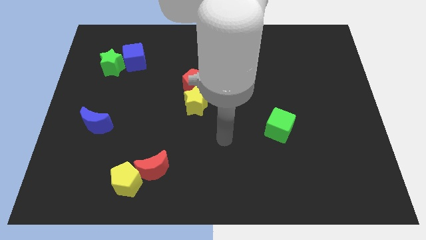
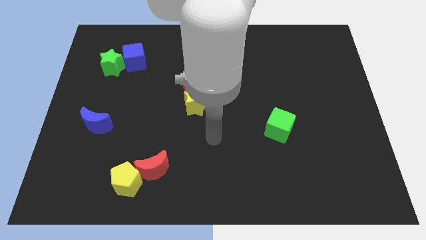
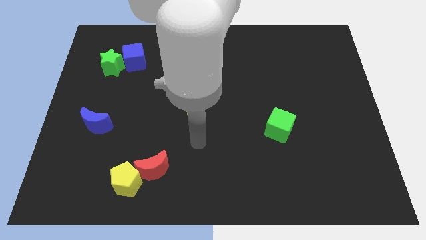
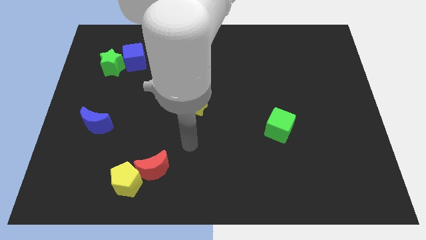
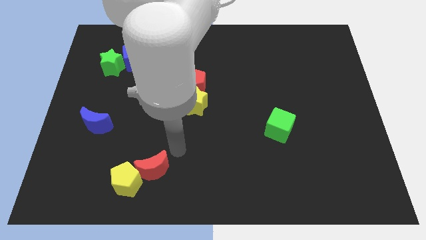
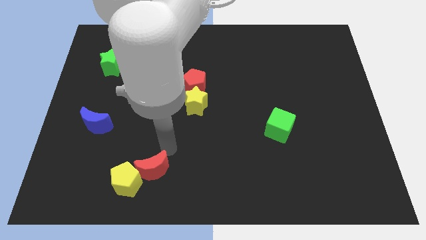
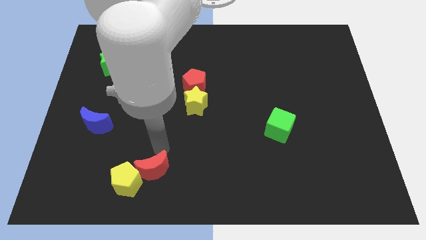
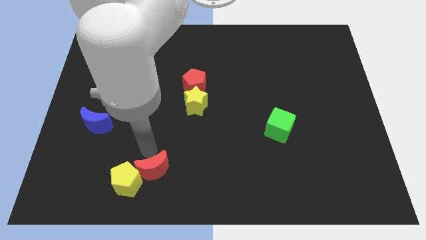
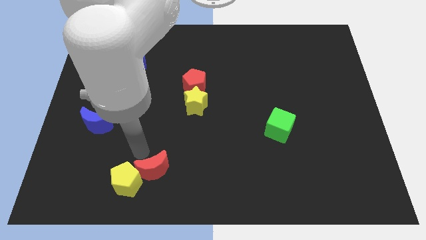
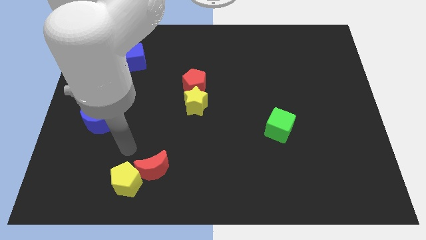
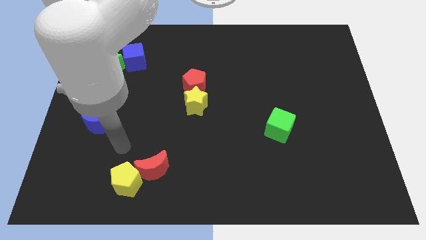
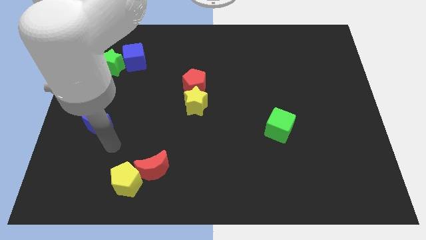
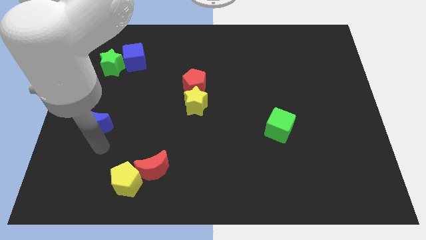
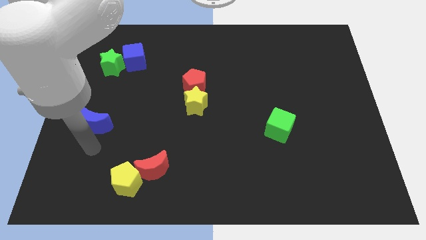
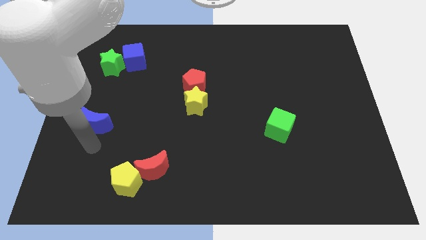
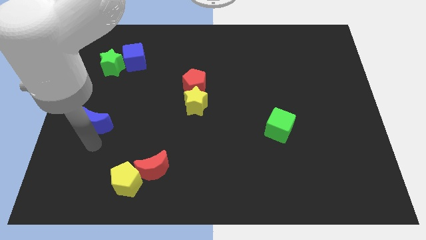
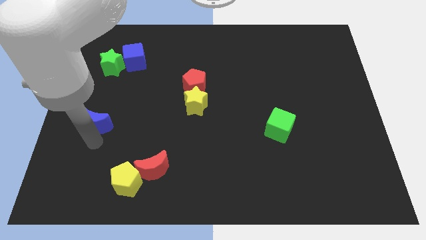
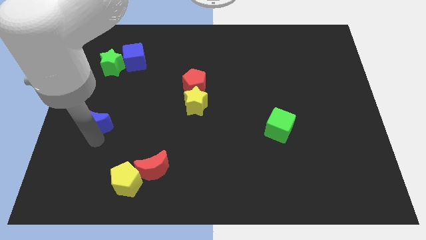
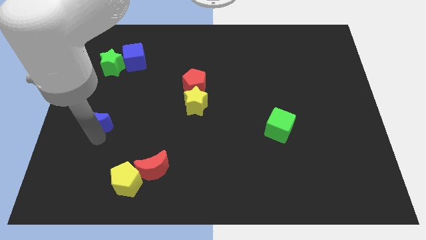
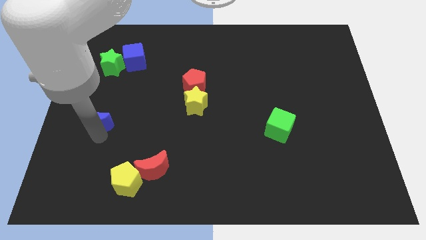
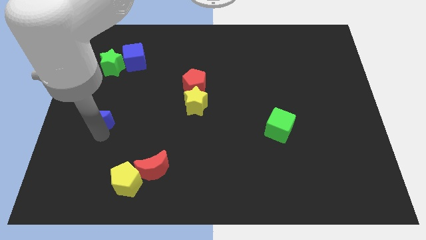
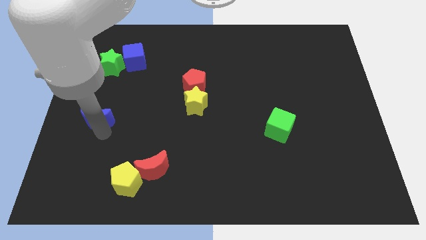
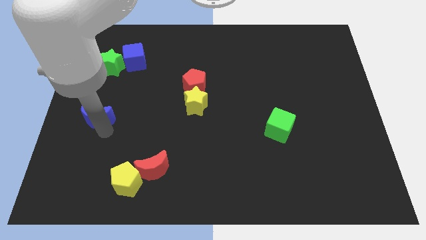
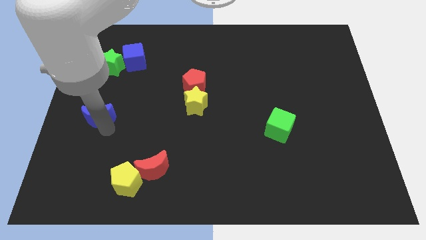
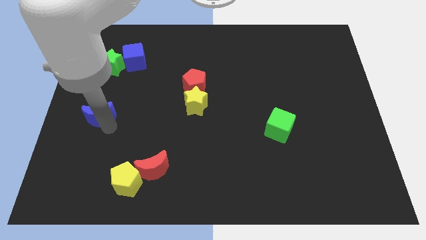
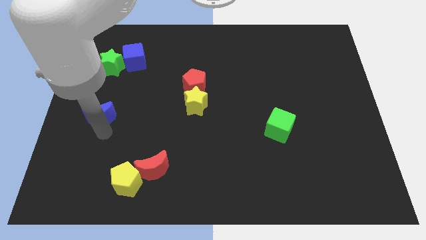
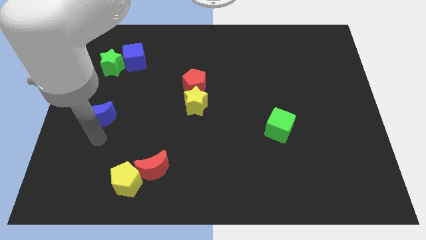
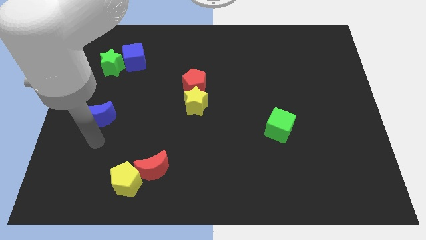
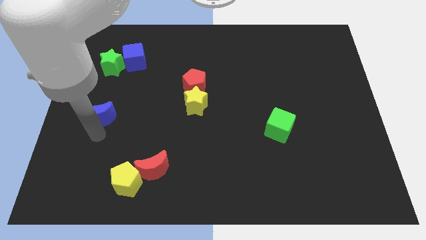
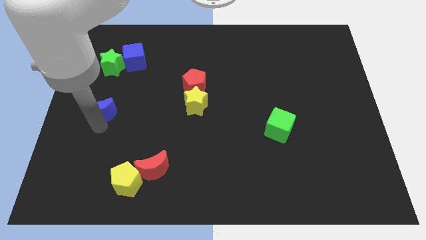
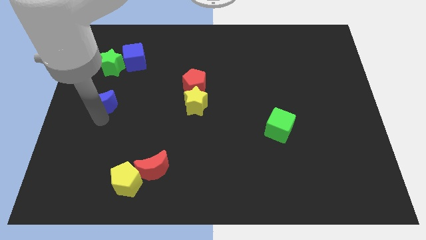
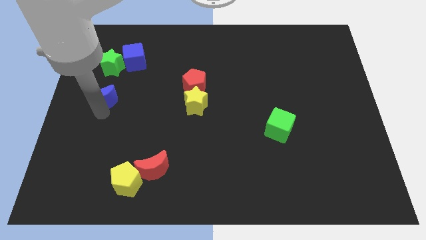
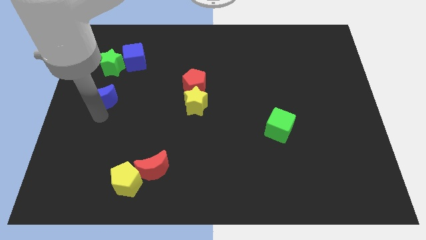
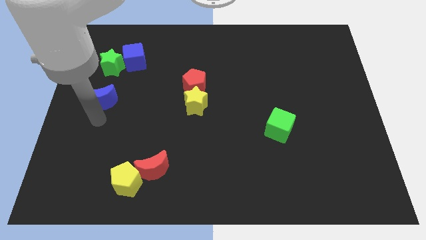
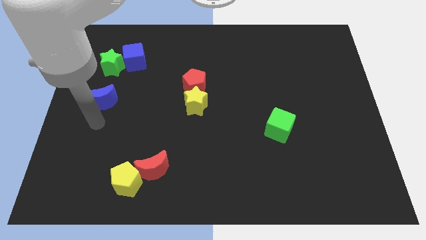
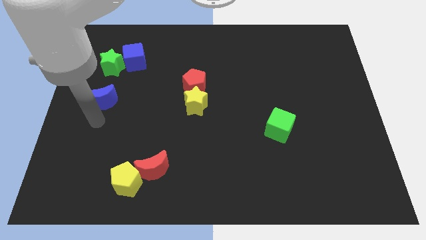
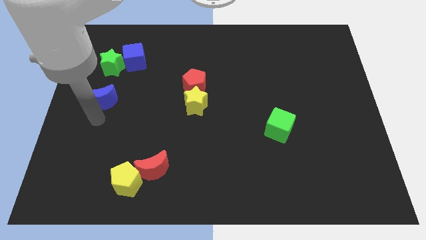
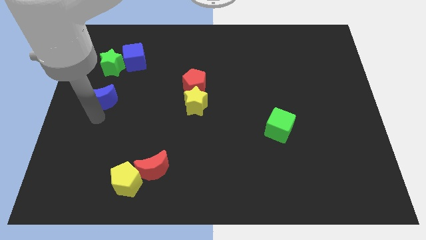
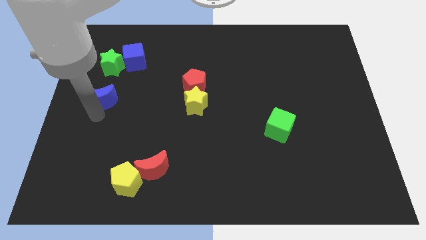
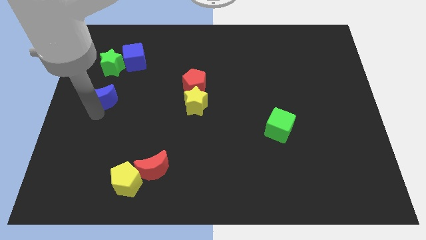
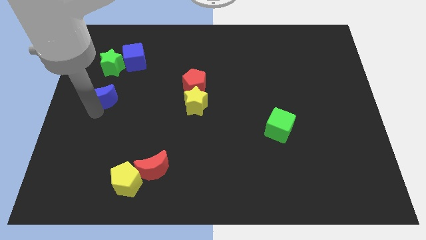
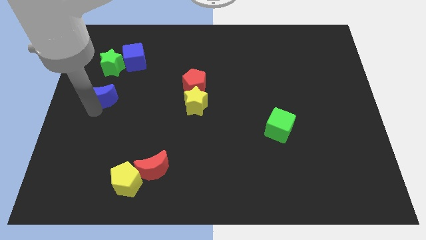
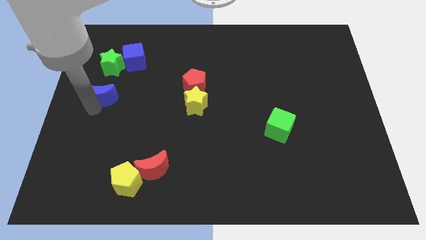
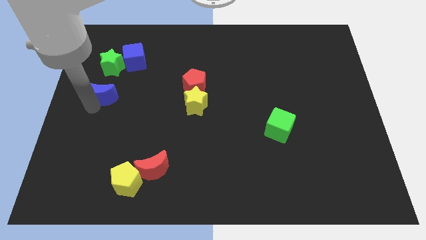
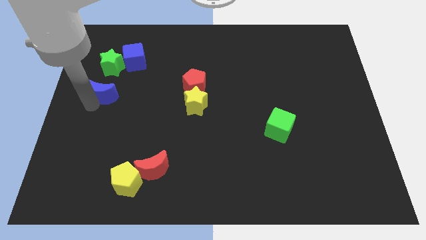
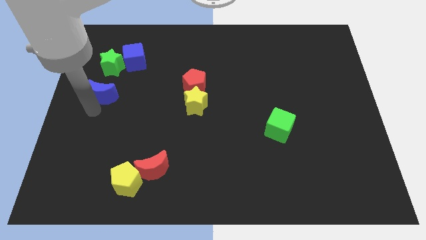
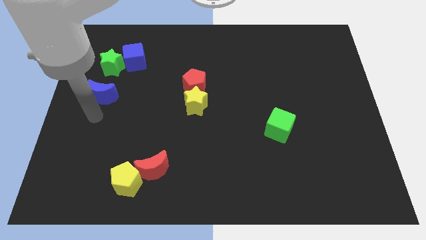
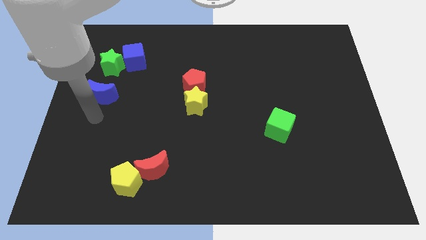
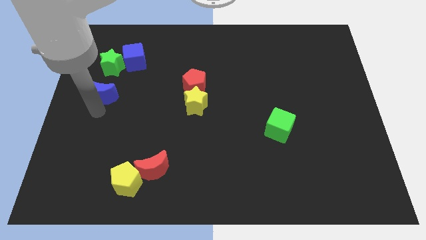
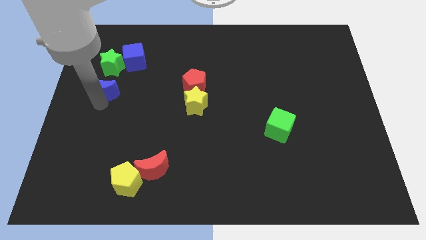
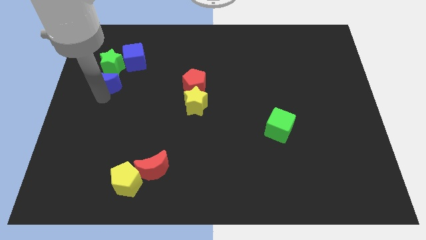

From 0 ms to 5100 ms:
push the blue moon to the green star

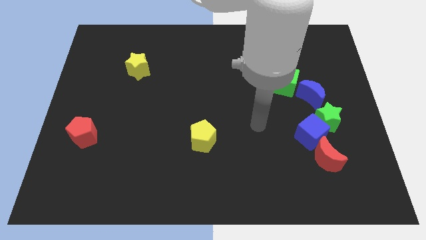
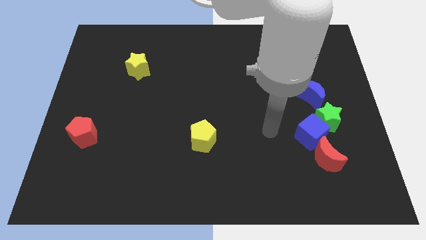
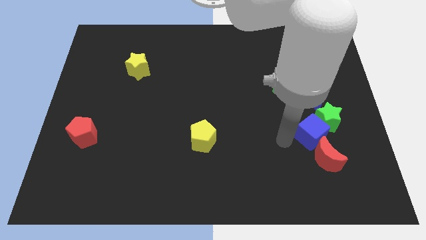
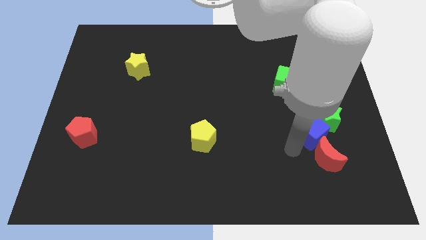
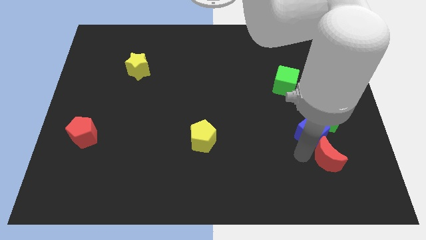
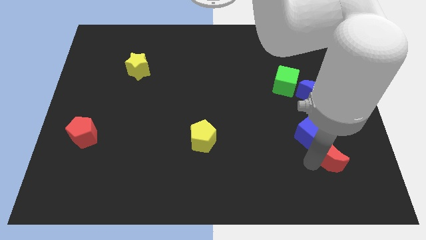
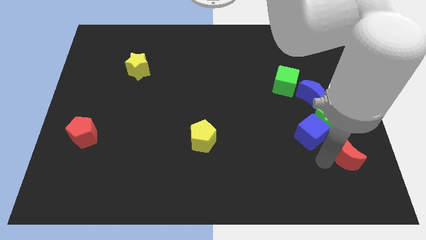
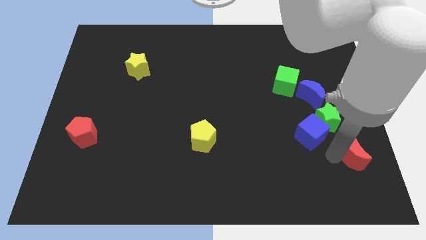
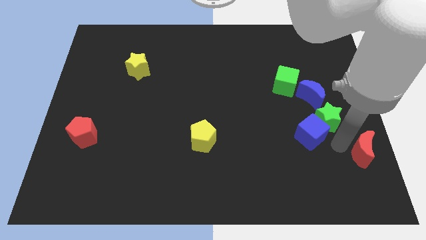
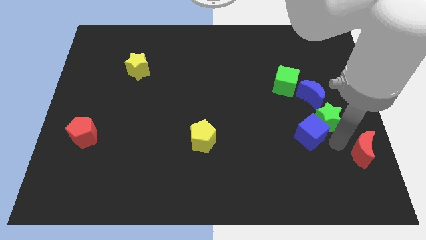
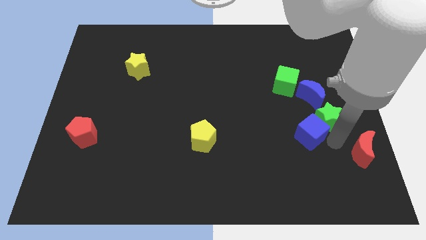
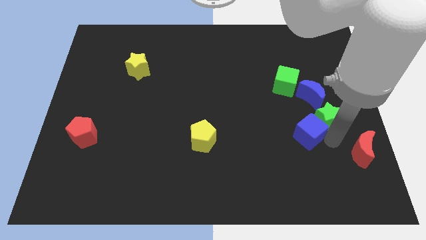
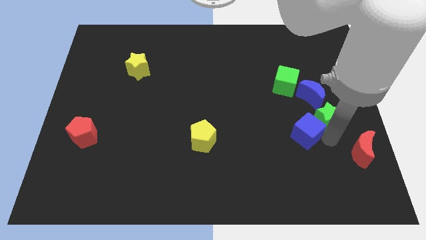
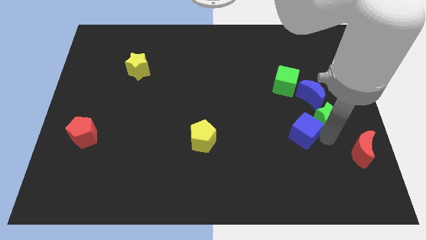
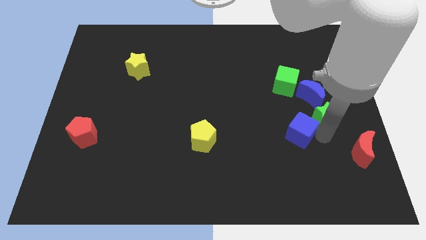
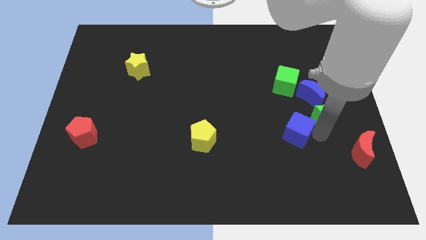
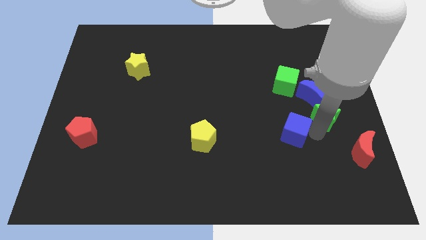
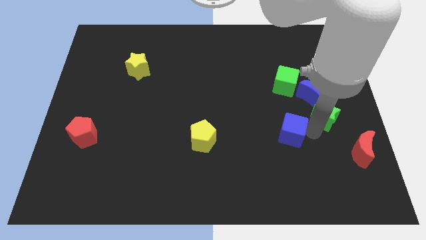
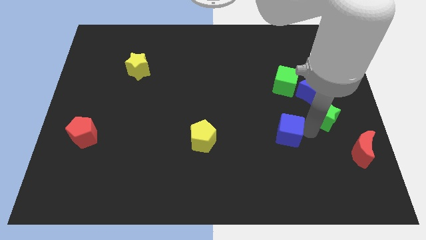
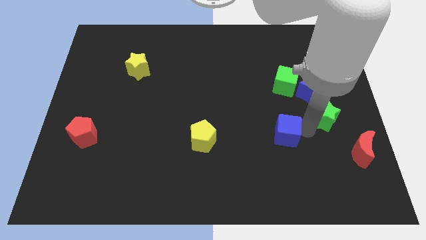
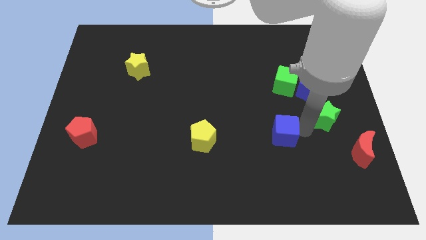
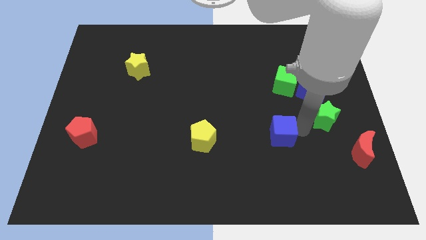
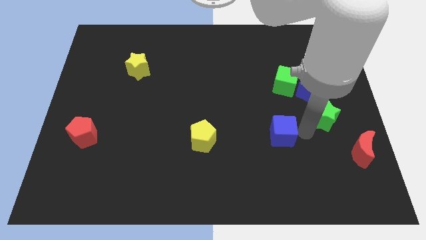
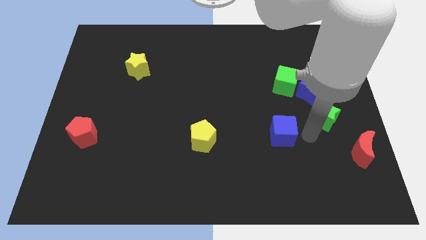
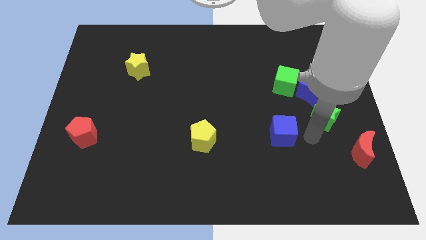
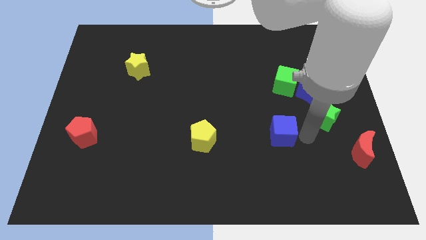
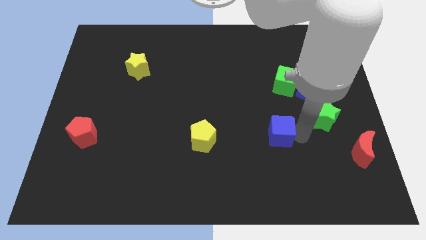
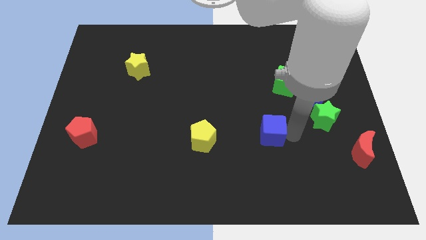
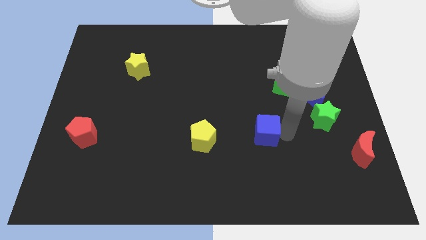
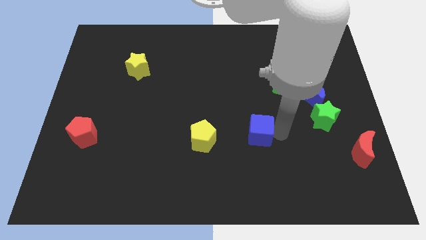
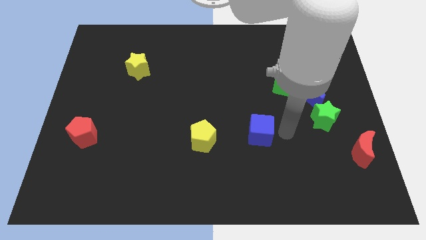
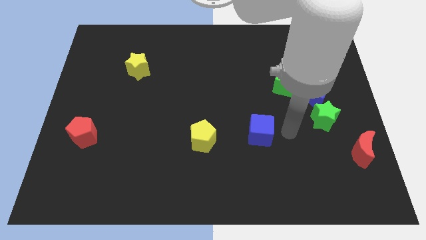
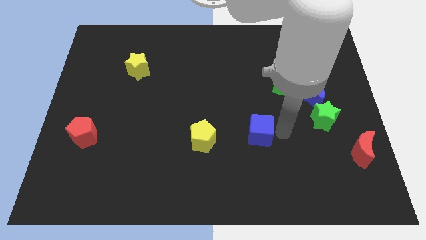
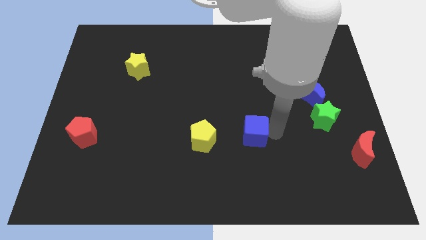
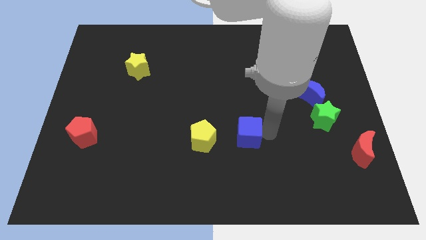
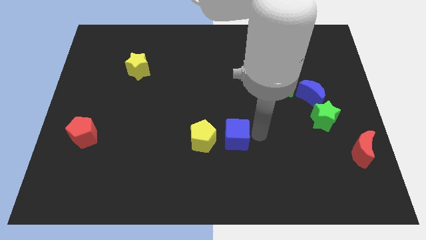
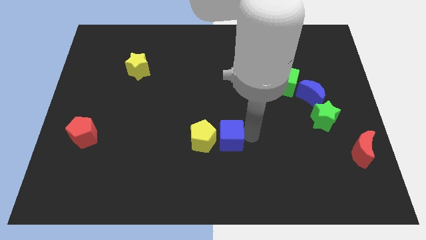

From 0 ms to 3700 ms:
put the blue cube close to the yellow pentagon
